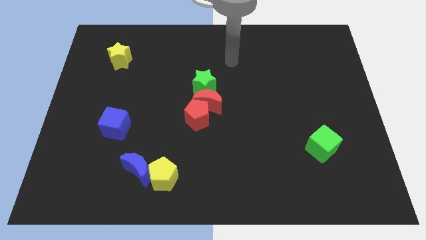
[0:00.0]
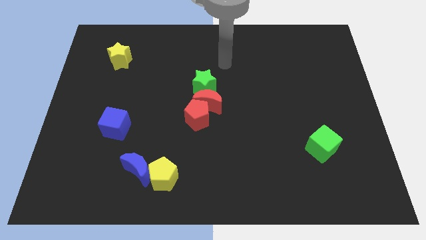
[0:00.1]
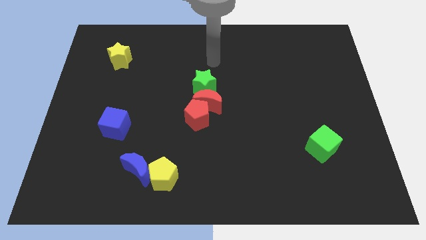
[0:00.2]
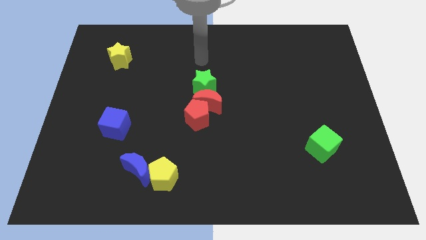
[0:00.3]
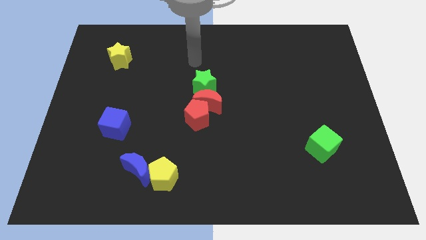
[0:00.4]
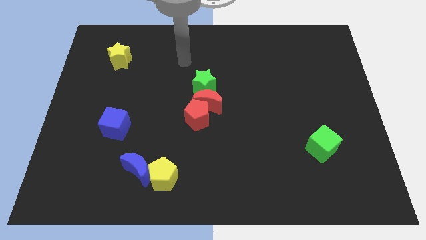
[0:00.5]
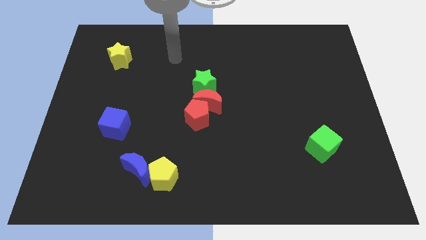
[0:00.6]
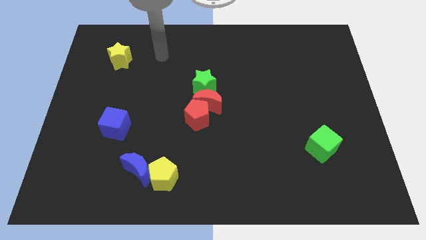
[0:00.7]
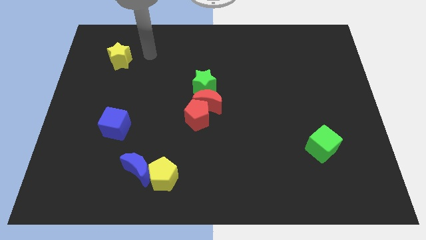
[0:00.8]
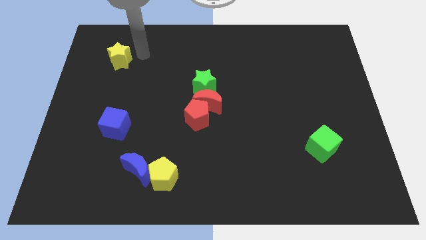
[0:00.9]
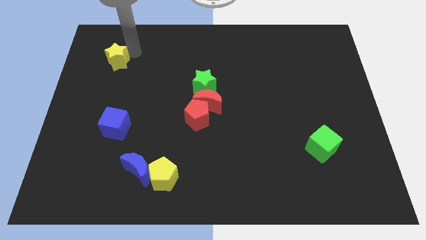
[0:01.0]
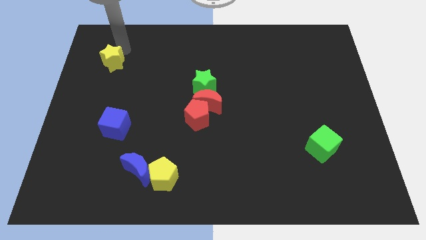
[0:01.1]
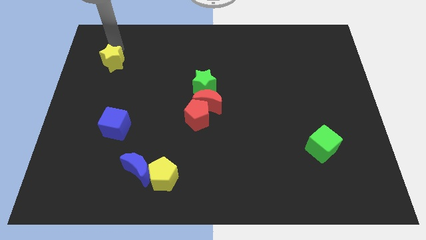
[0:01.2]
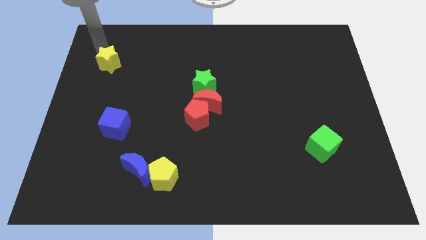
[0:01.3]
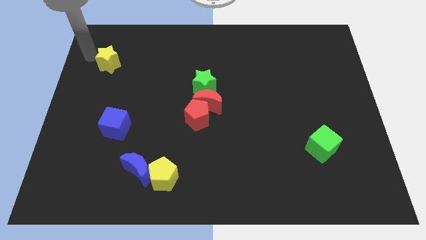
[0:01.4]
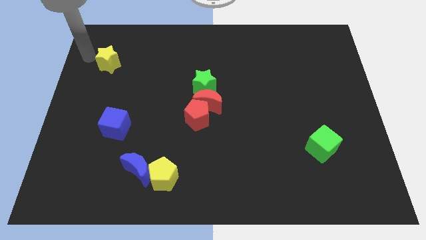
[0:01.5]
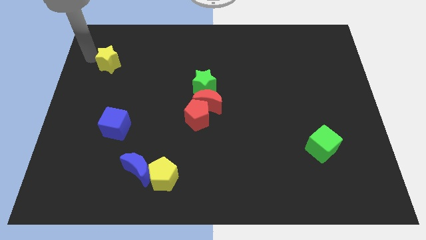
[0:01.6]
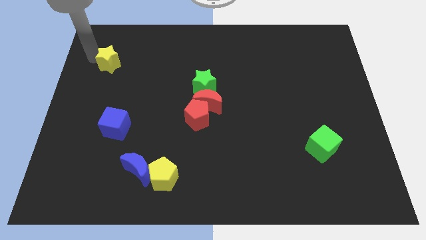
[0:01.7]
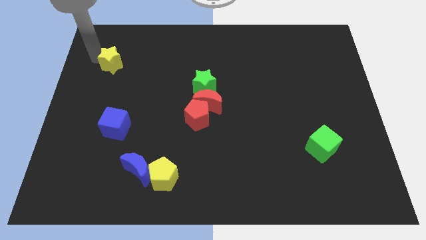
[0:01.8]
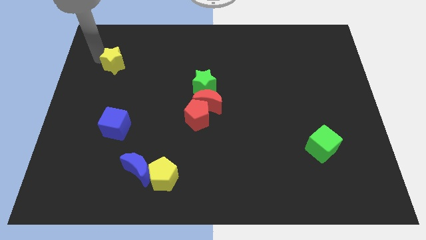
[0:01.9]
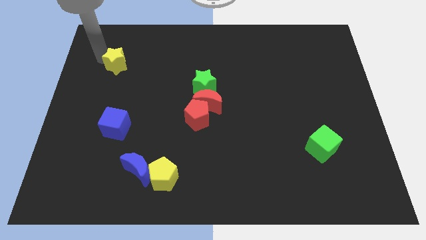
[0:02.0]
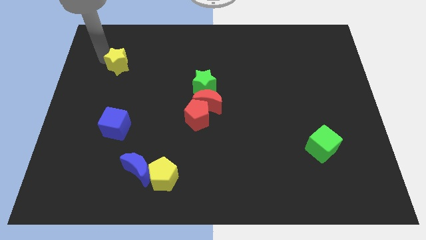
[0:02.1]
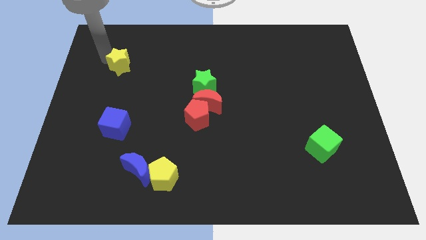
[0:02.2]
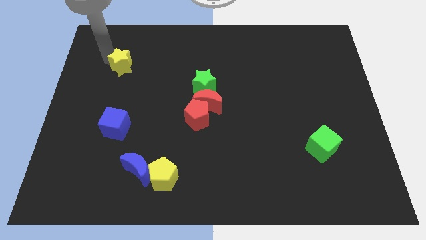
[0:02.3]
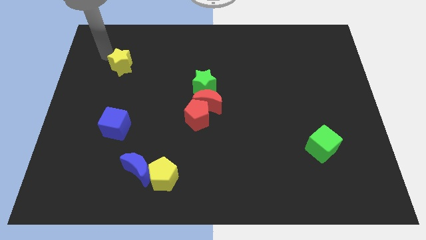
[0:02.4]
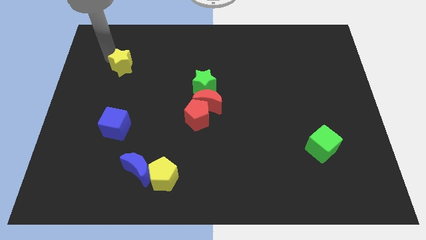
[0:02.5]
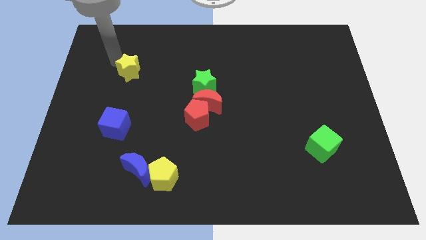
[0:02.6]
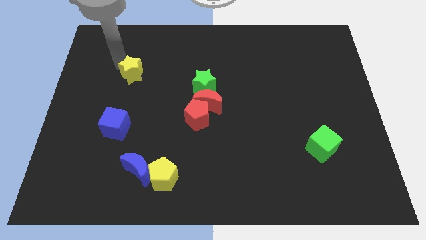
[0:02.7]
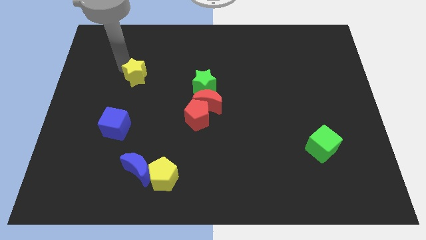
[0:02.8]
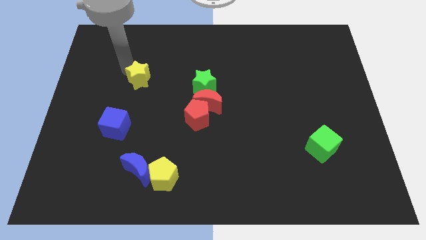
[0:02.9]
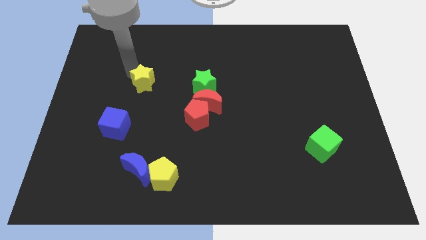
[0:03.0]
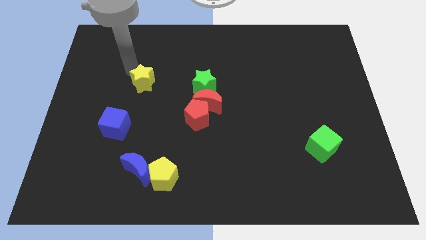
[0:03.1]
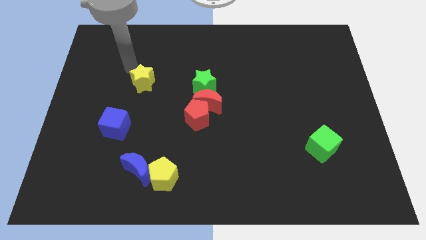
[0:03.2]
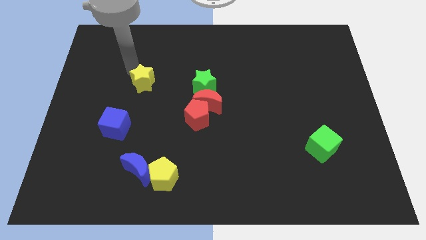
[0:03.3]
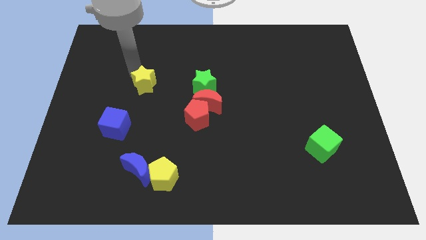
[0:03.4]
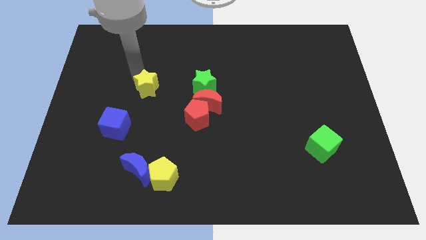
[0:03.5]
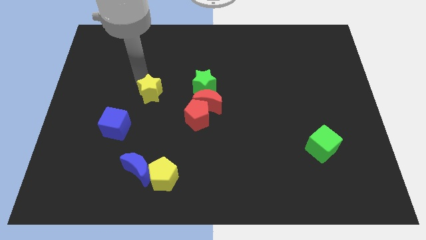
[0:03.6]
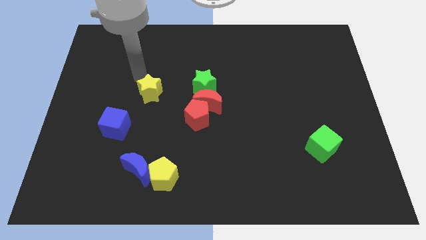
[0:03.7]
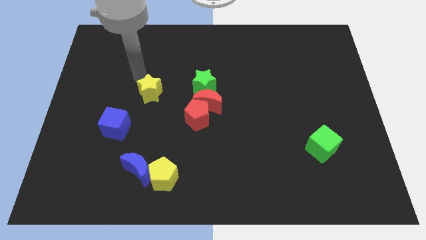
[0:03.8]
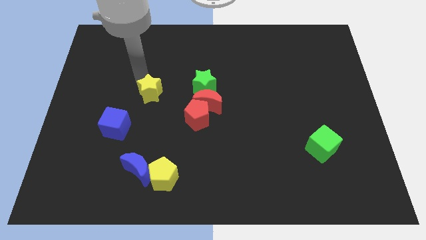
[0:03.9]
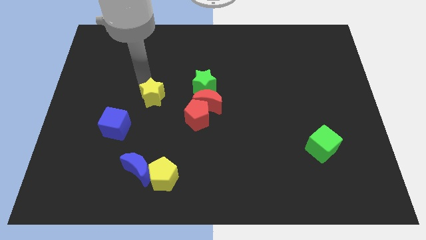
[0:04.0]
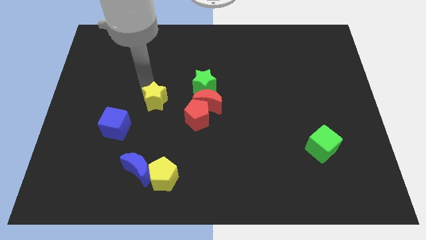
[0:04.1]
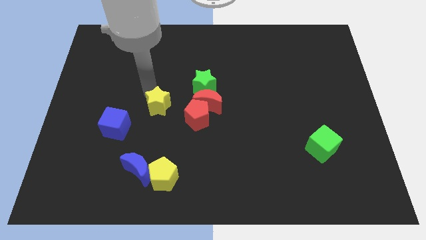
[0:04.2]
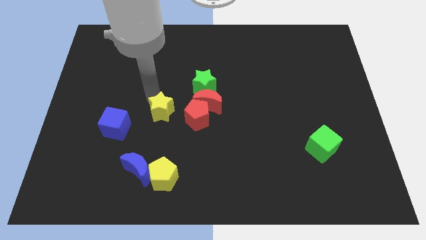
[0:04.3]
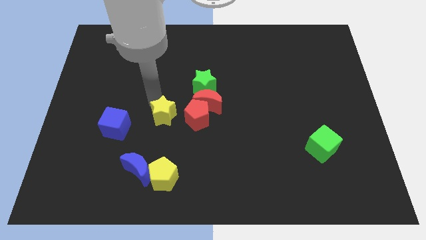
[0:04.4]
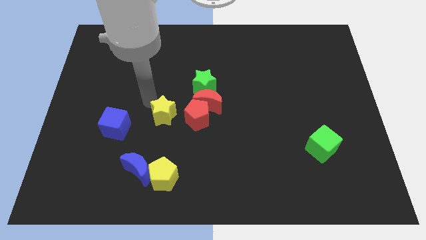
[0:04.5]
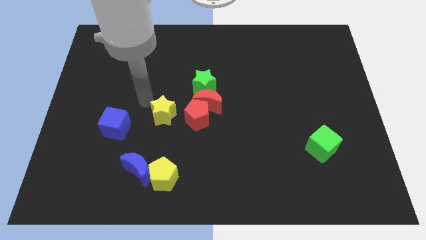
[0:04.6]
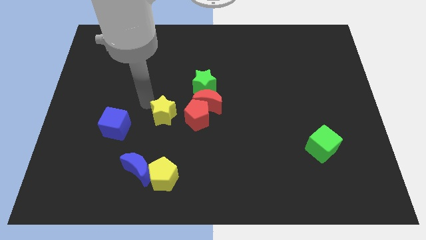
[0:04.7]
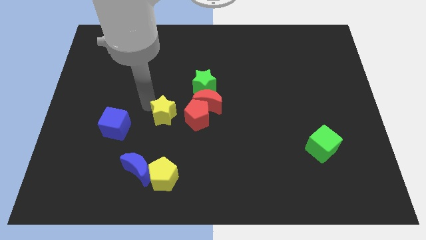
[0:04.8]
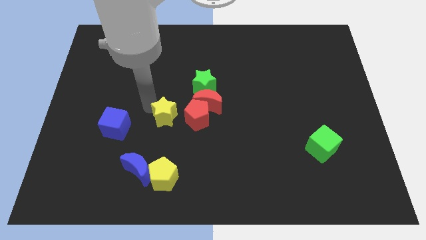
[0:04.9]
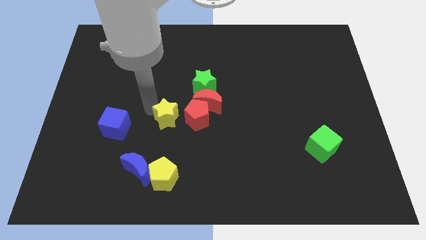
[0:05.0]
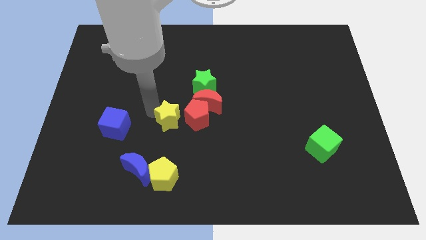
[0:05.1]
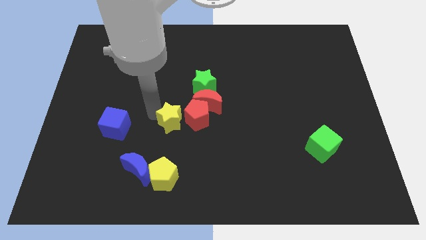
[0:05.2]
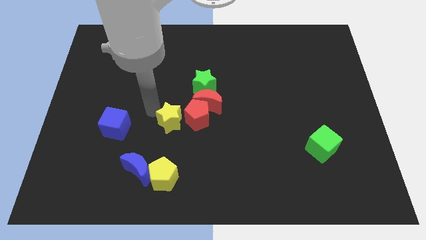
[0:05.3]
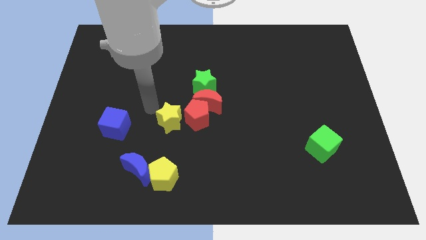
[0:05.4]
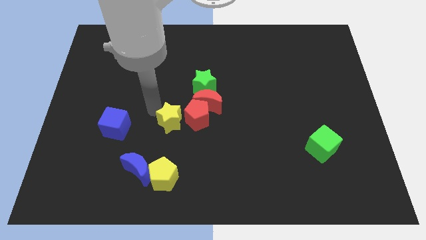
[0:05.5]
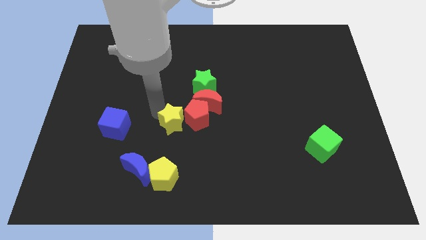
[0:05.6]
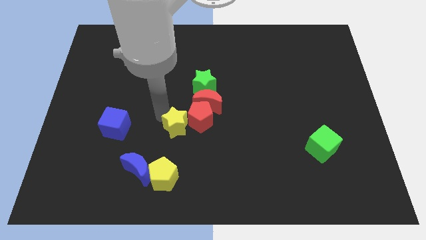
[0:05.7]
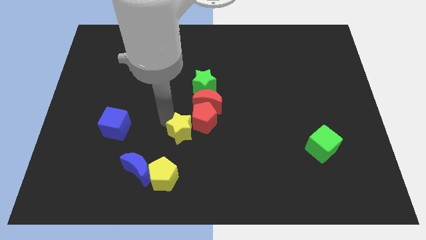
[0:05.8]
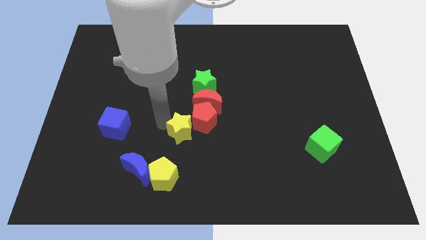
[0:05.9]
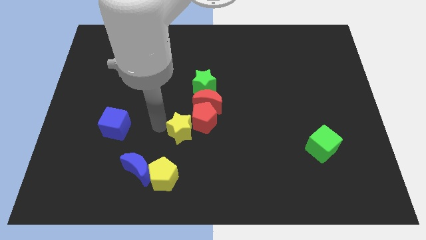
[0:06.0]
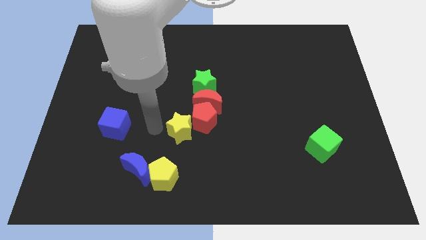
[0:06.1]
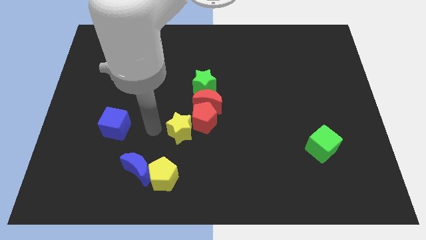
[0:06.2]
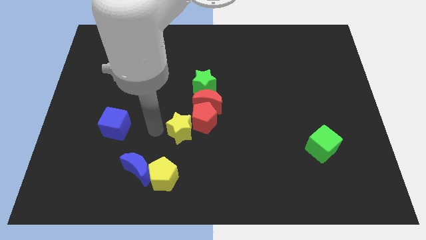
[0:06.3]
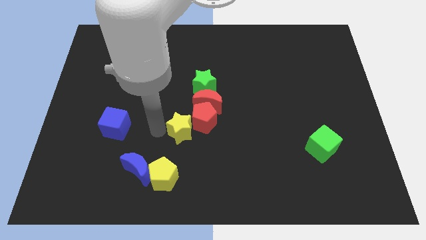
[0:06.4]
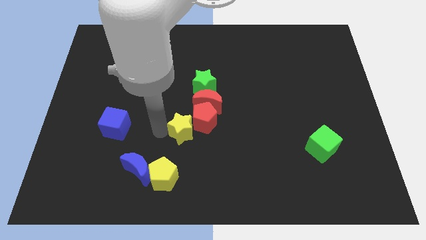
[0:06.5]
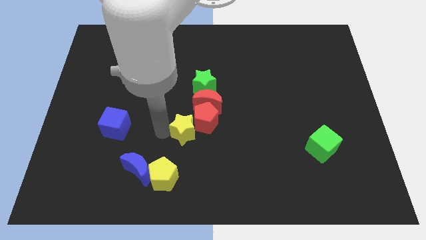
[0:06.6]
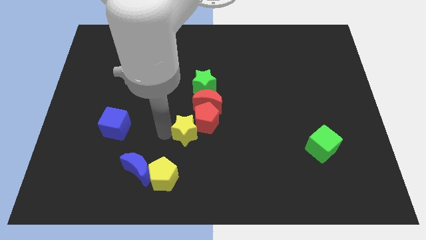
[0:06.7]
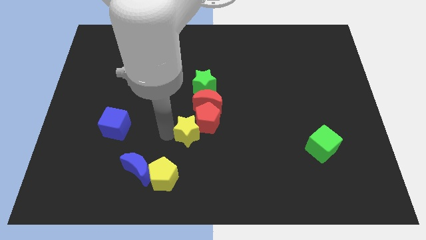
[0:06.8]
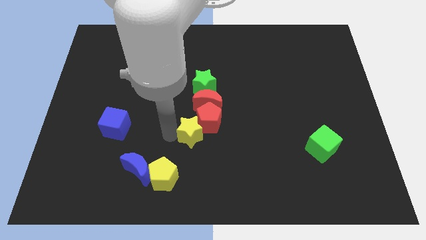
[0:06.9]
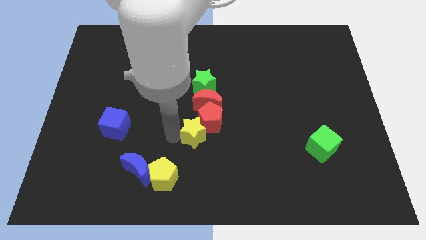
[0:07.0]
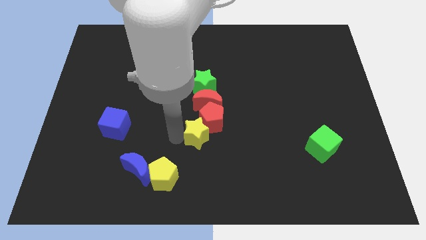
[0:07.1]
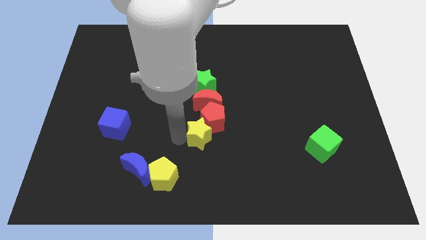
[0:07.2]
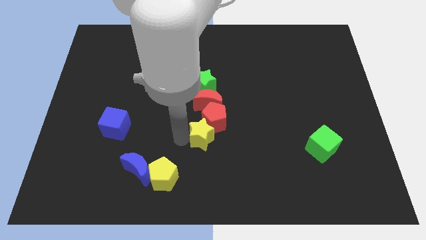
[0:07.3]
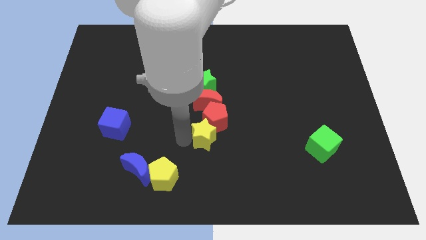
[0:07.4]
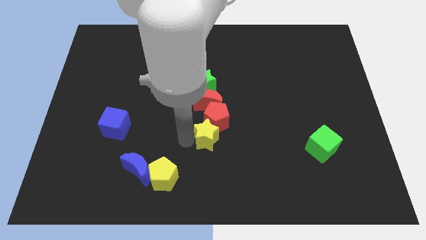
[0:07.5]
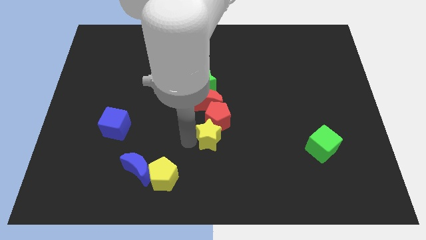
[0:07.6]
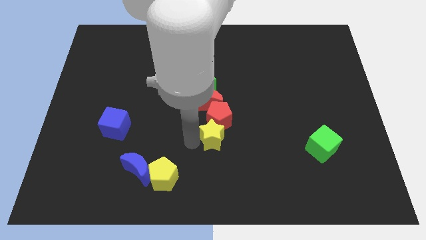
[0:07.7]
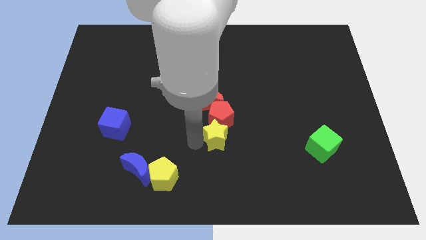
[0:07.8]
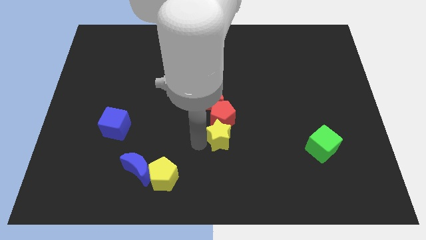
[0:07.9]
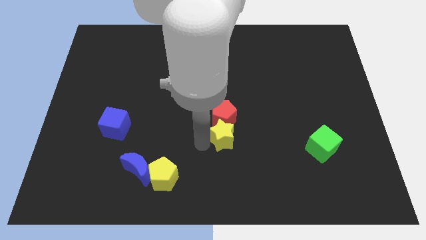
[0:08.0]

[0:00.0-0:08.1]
move the yellow star to the bottom right side of the red moon
